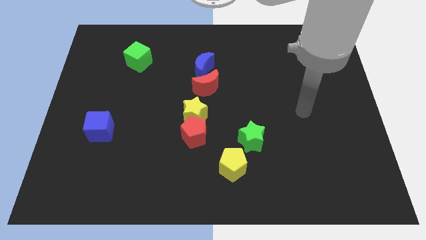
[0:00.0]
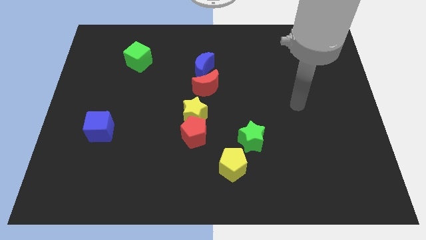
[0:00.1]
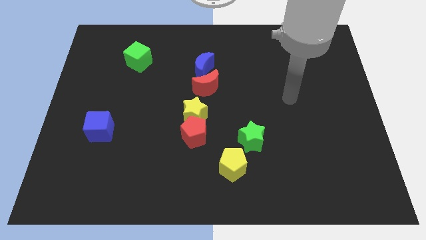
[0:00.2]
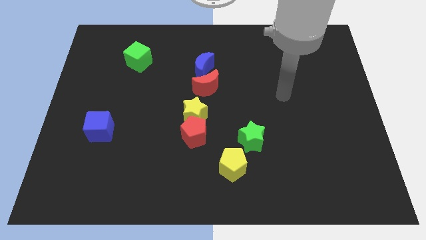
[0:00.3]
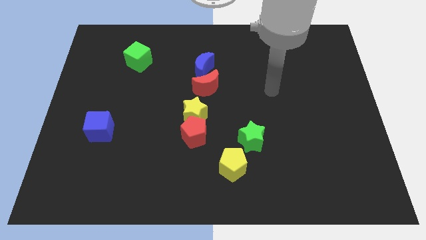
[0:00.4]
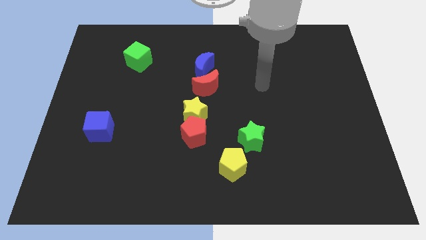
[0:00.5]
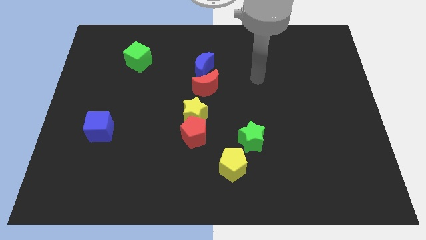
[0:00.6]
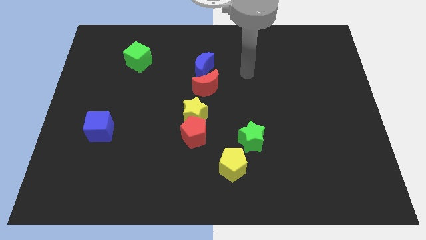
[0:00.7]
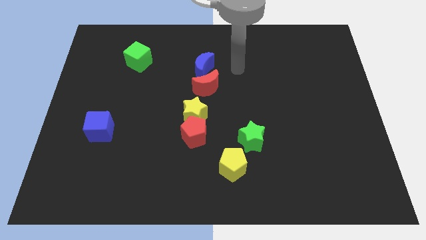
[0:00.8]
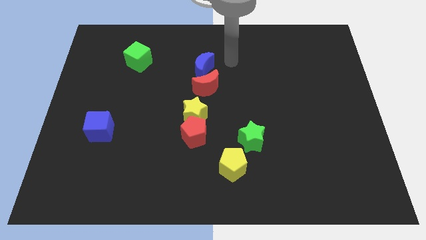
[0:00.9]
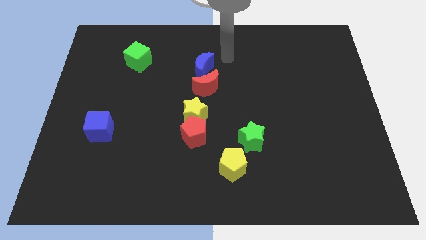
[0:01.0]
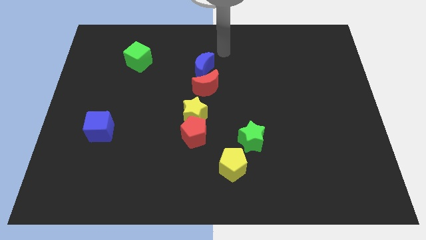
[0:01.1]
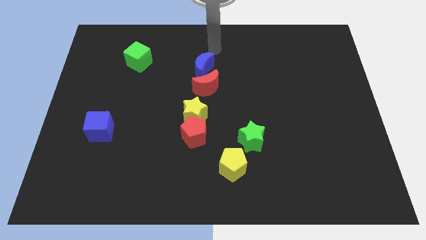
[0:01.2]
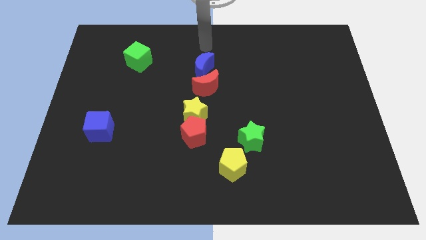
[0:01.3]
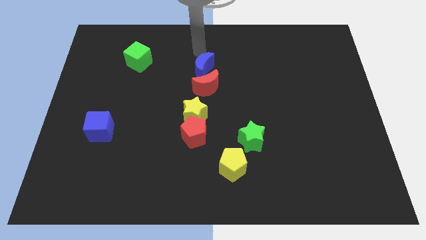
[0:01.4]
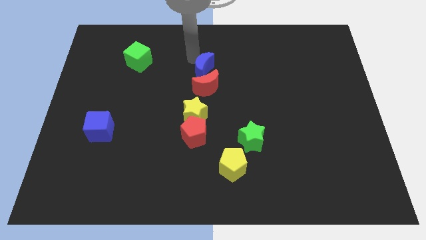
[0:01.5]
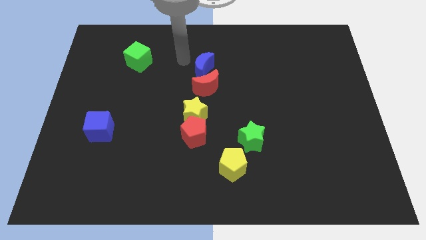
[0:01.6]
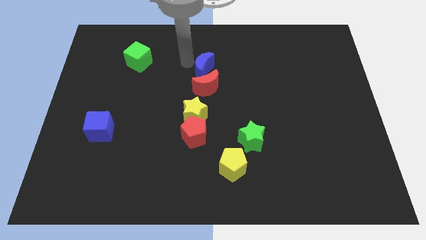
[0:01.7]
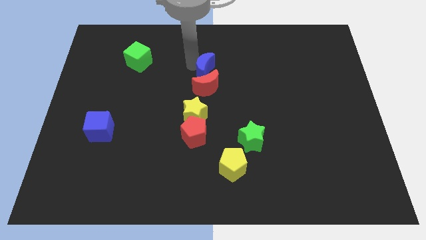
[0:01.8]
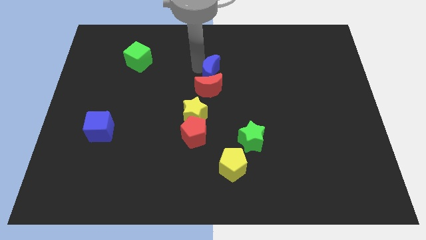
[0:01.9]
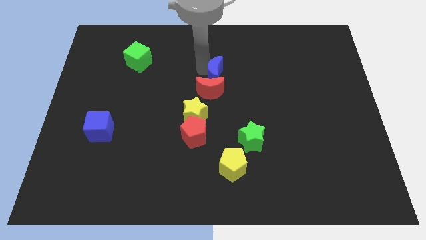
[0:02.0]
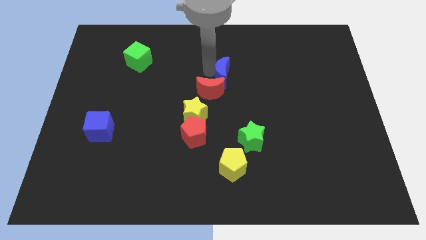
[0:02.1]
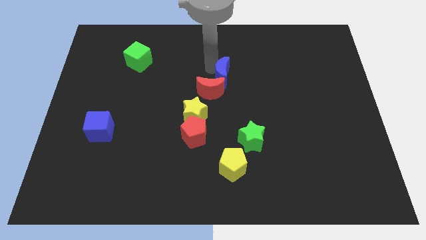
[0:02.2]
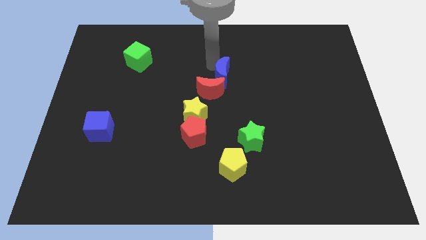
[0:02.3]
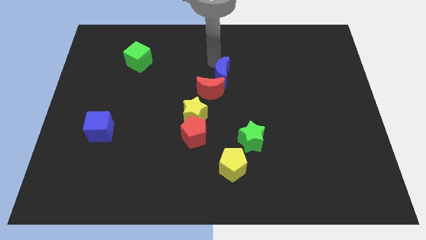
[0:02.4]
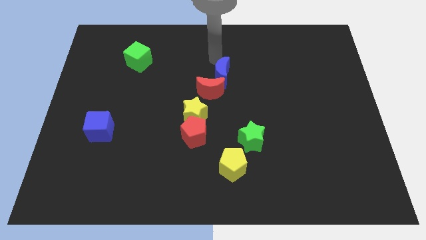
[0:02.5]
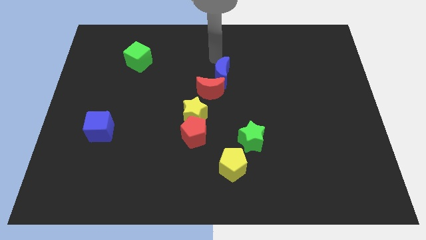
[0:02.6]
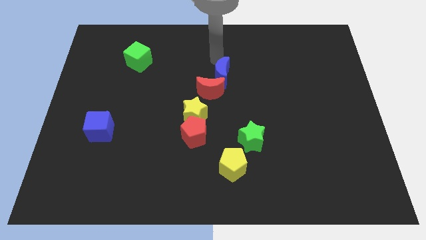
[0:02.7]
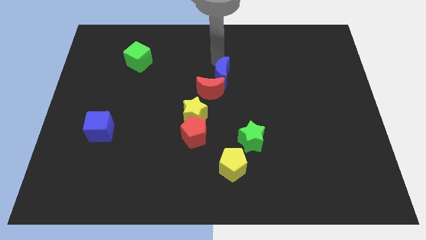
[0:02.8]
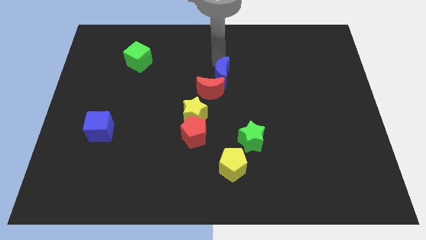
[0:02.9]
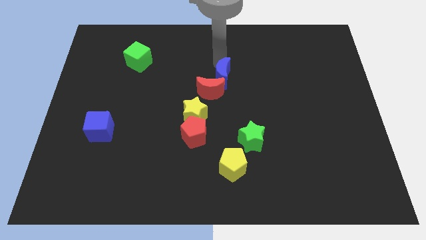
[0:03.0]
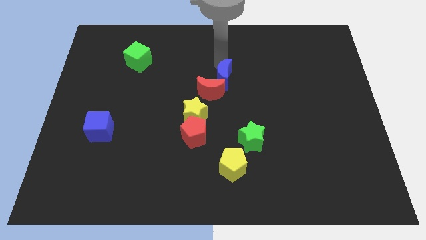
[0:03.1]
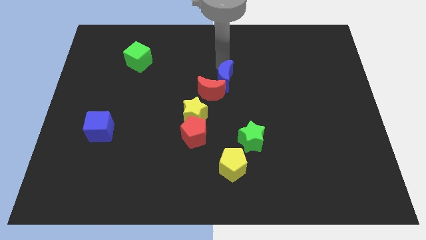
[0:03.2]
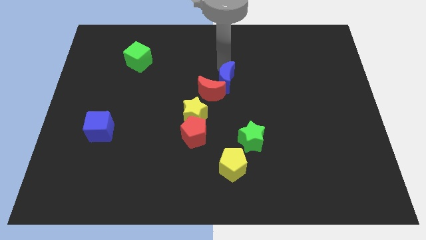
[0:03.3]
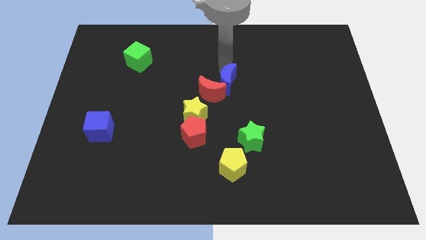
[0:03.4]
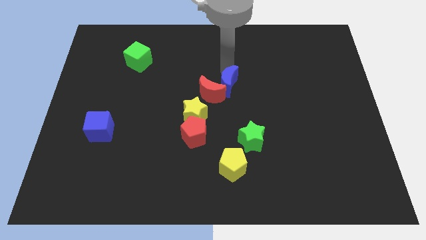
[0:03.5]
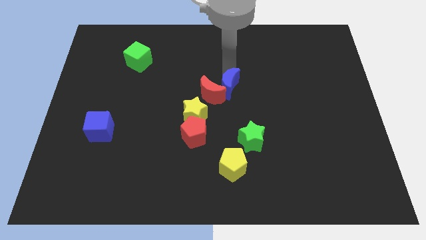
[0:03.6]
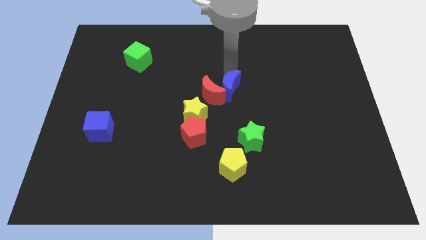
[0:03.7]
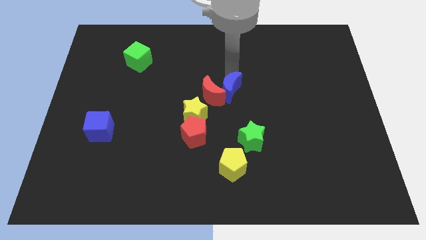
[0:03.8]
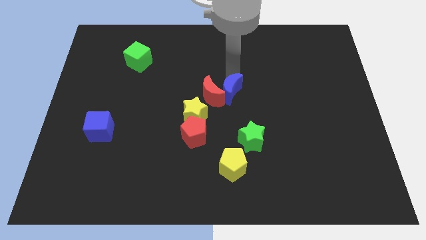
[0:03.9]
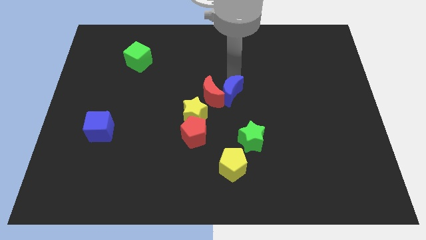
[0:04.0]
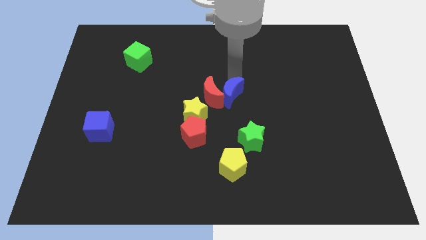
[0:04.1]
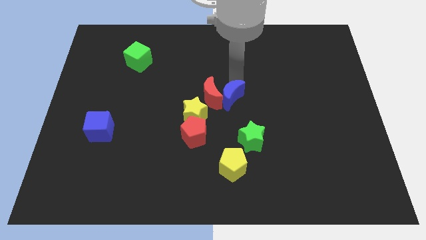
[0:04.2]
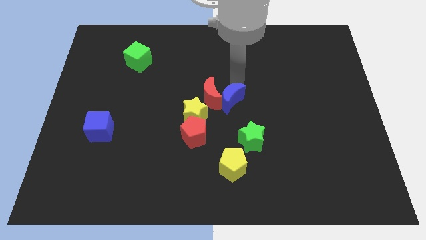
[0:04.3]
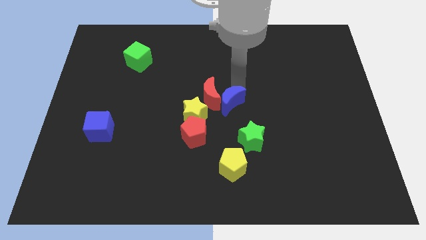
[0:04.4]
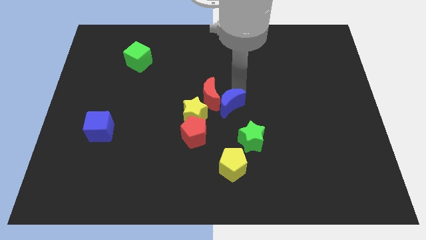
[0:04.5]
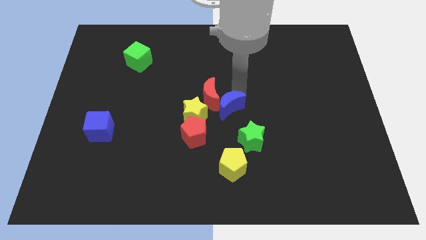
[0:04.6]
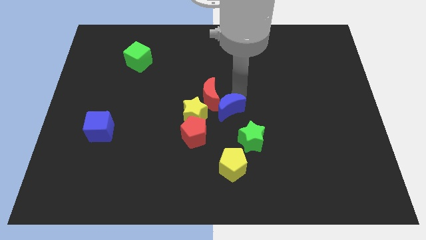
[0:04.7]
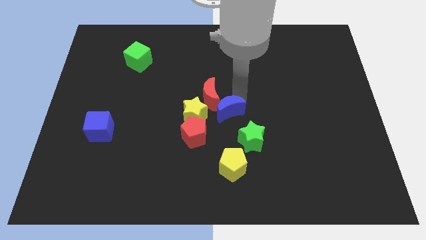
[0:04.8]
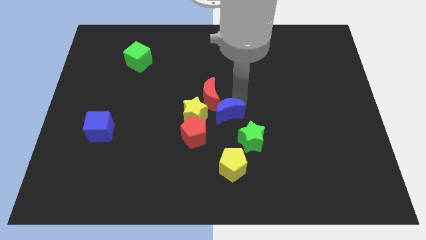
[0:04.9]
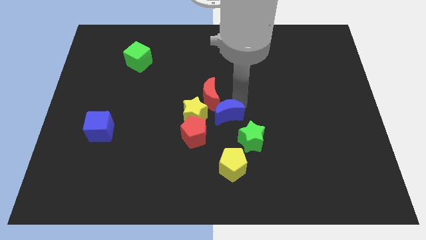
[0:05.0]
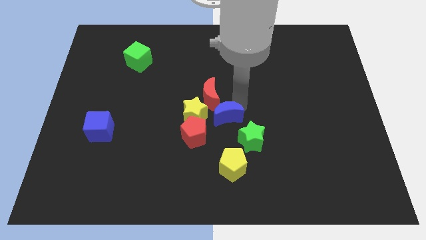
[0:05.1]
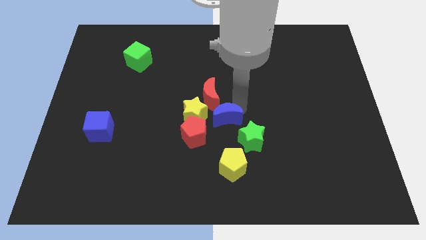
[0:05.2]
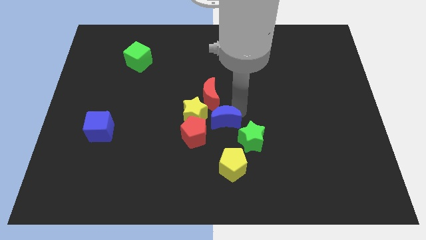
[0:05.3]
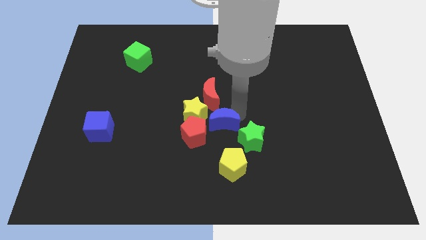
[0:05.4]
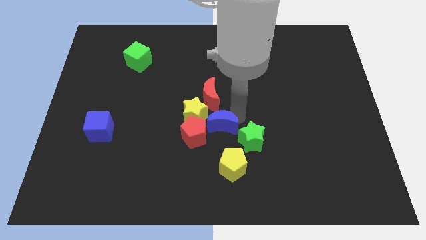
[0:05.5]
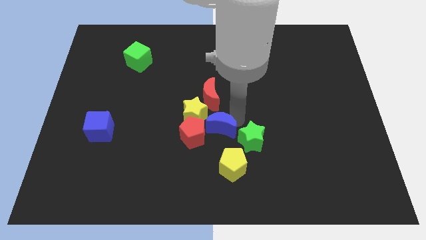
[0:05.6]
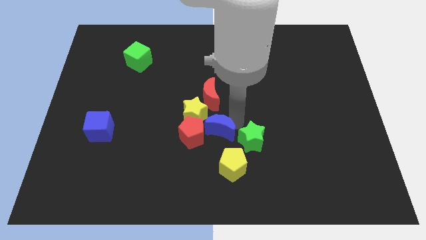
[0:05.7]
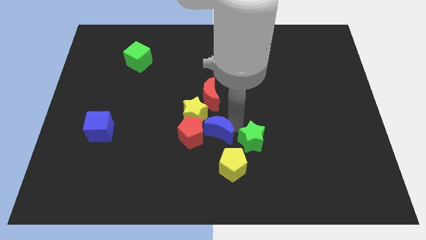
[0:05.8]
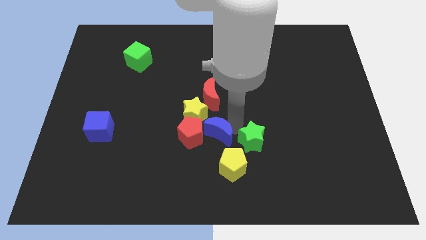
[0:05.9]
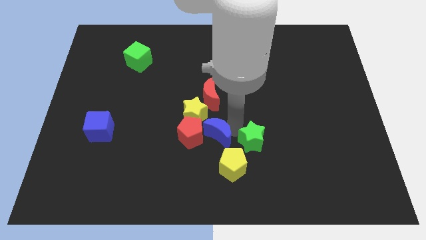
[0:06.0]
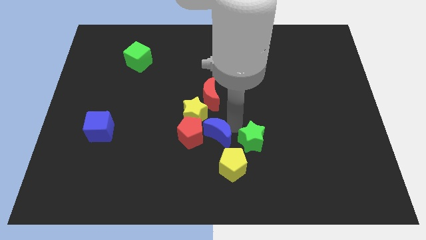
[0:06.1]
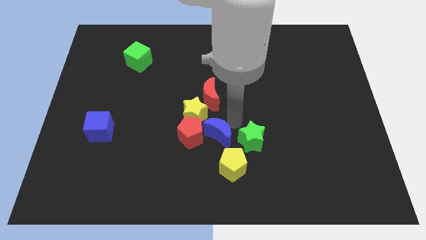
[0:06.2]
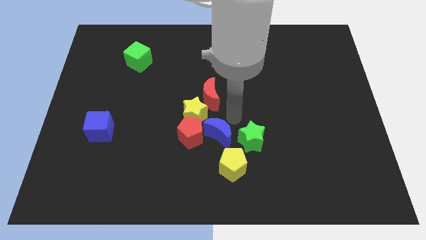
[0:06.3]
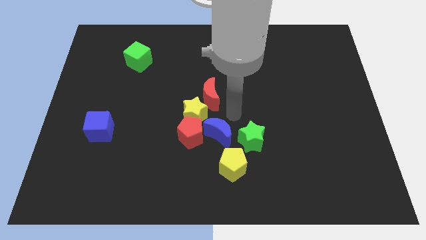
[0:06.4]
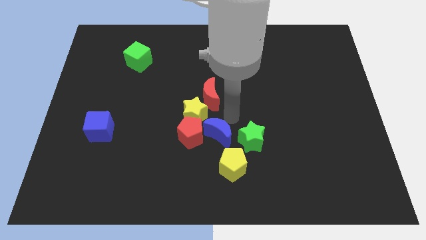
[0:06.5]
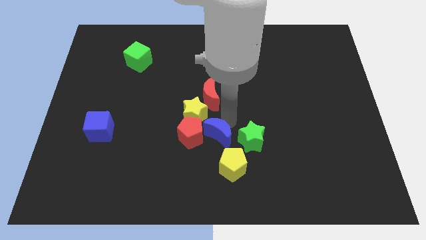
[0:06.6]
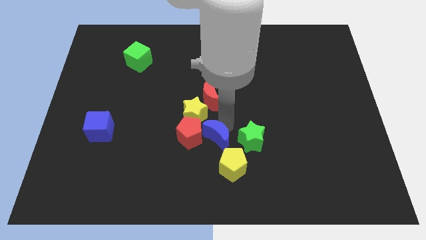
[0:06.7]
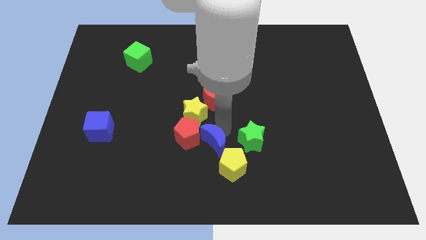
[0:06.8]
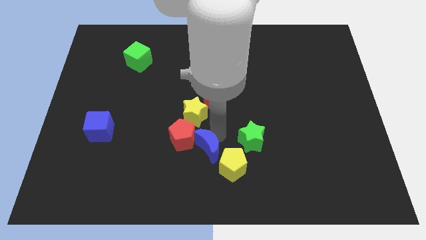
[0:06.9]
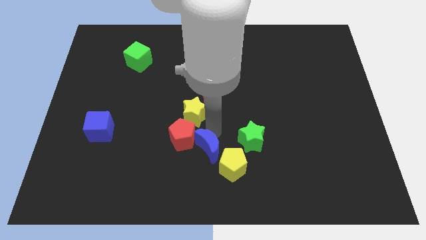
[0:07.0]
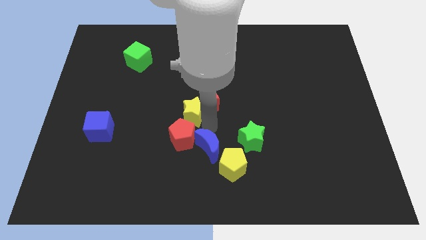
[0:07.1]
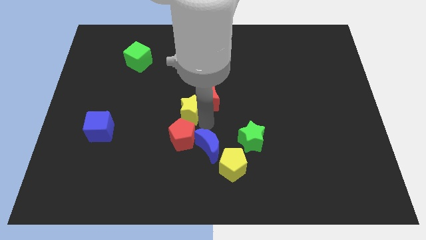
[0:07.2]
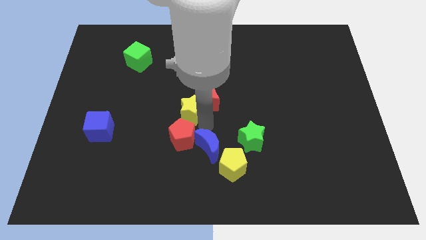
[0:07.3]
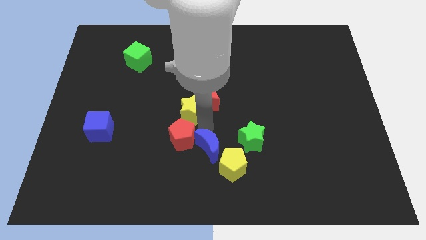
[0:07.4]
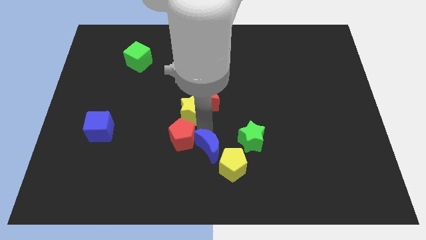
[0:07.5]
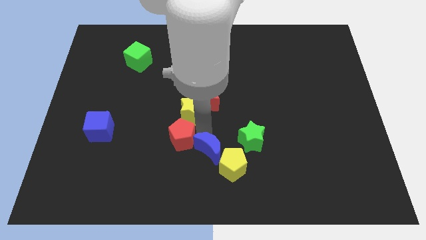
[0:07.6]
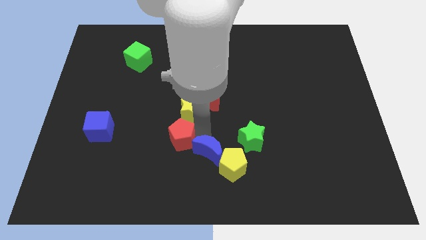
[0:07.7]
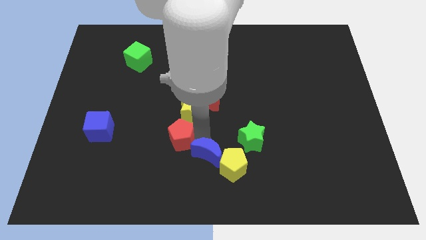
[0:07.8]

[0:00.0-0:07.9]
slide the blue moon to the bottom
